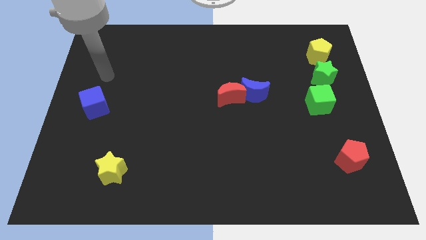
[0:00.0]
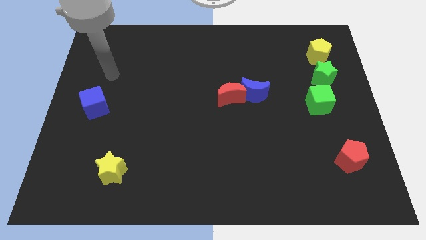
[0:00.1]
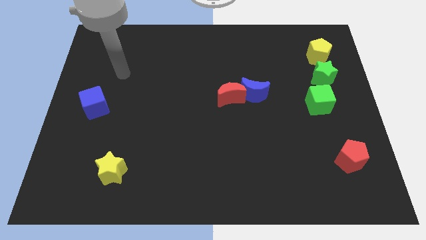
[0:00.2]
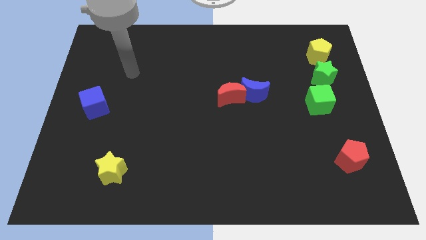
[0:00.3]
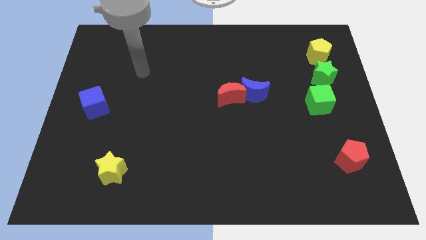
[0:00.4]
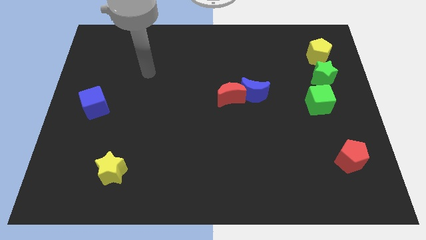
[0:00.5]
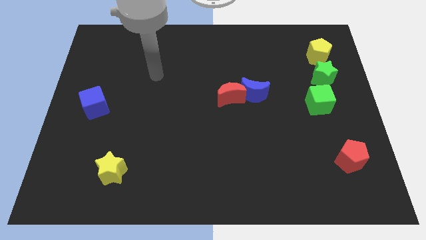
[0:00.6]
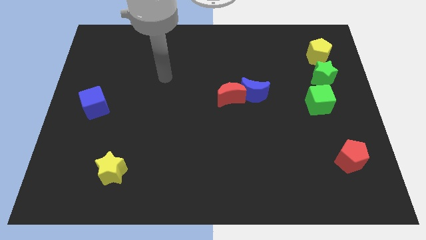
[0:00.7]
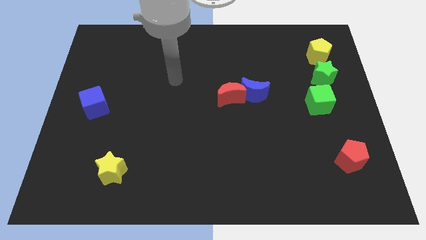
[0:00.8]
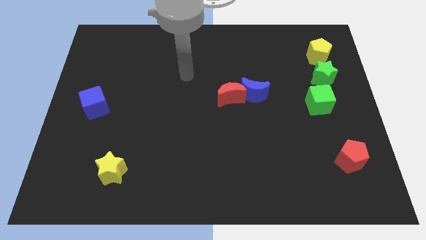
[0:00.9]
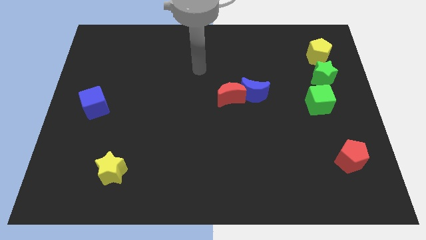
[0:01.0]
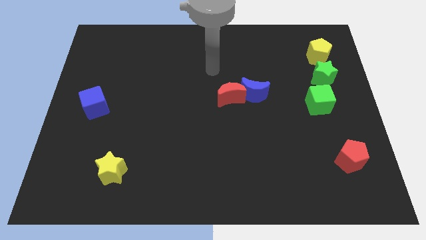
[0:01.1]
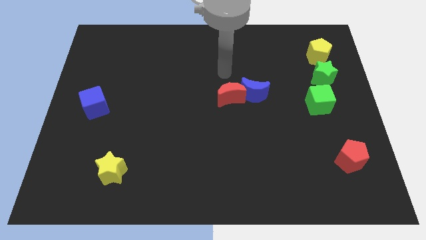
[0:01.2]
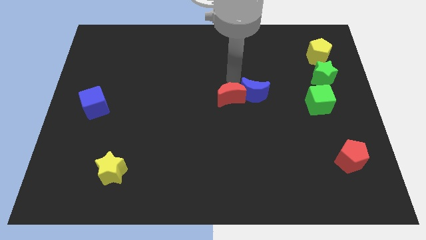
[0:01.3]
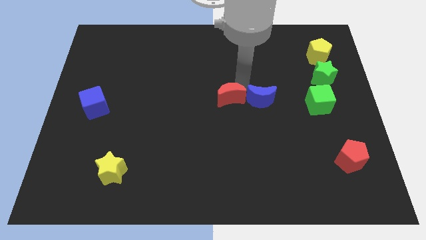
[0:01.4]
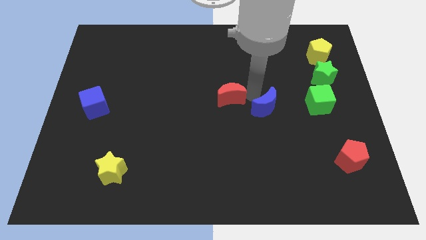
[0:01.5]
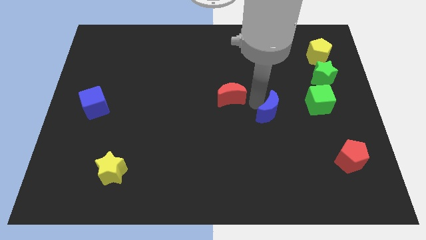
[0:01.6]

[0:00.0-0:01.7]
separate the red moon from the blue moon

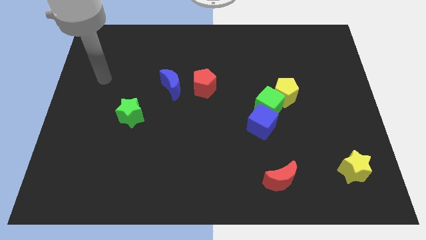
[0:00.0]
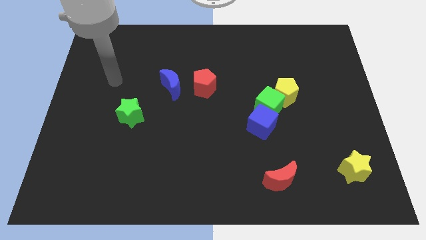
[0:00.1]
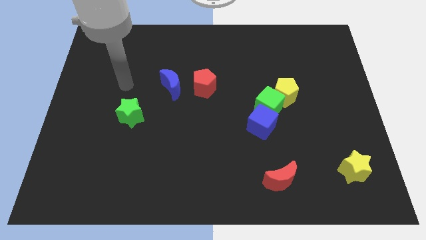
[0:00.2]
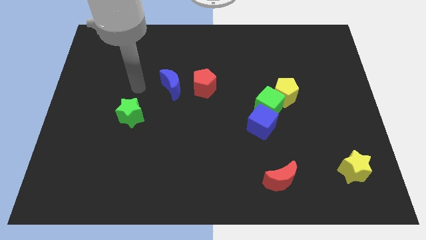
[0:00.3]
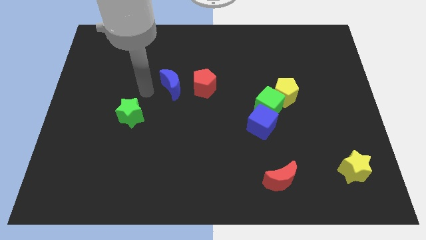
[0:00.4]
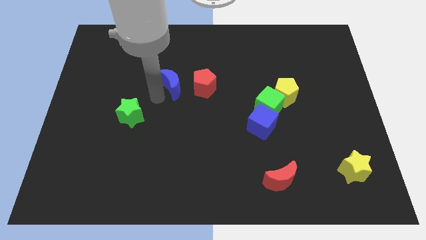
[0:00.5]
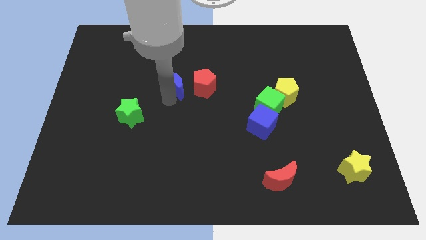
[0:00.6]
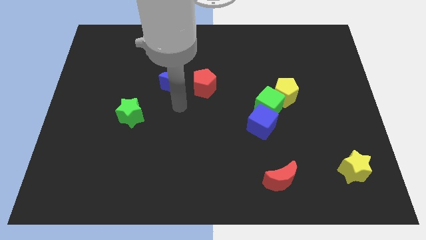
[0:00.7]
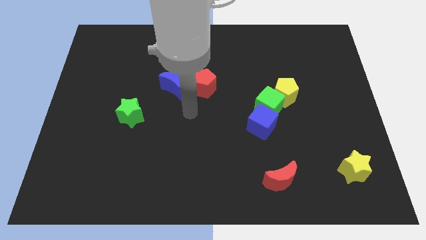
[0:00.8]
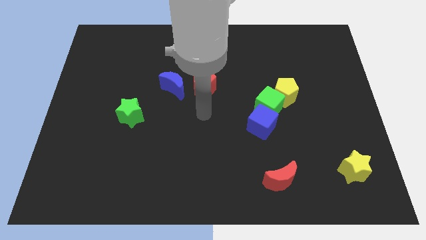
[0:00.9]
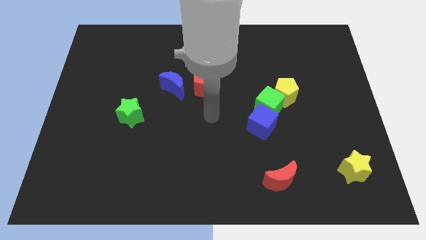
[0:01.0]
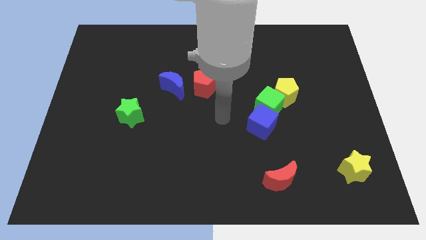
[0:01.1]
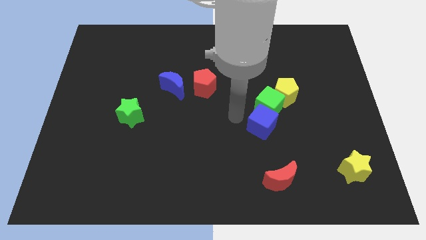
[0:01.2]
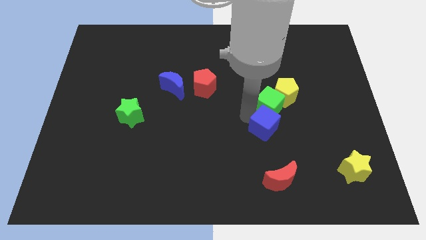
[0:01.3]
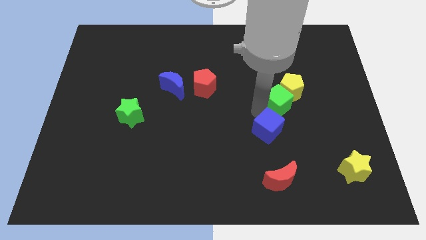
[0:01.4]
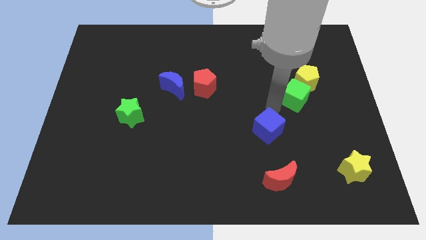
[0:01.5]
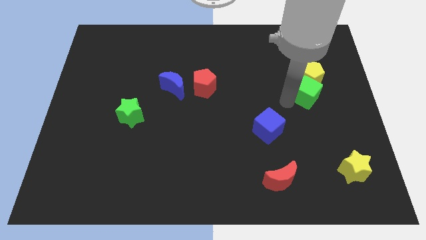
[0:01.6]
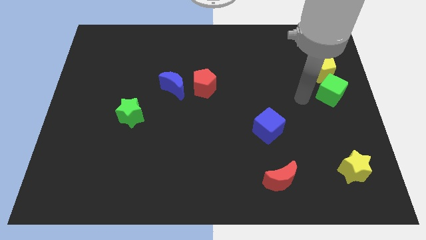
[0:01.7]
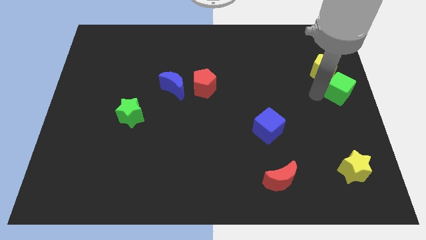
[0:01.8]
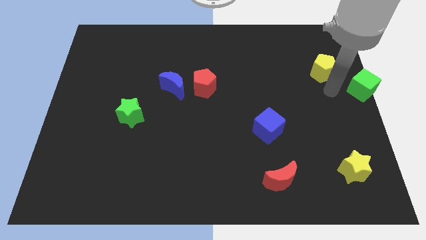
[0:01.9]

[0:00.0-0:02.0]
pull the yellow pentagon apart from the green cube

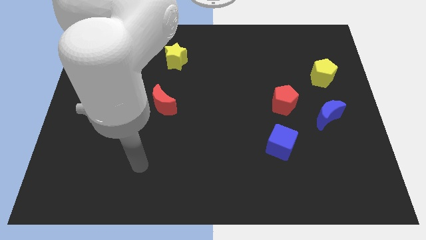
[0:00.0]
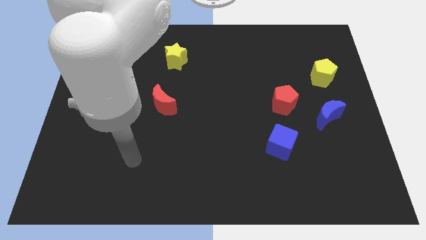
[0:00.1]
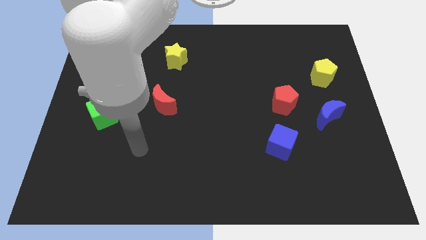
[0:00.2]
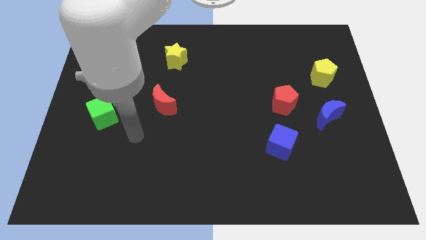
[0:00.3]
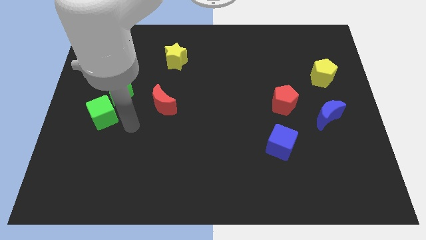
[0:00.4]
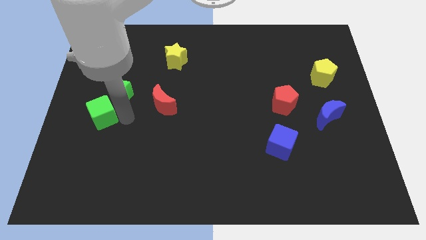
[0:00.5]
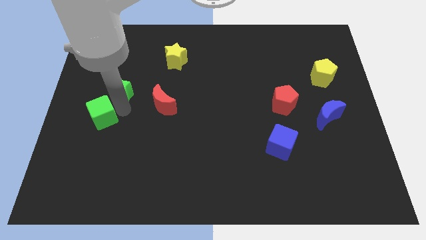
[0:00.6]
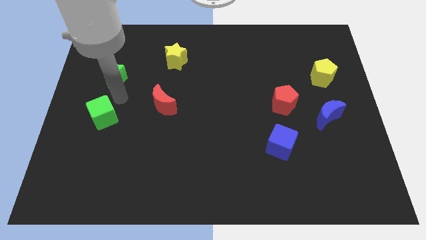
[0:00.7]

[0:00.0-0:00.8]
pull the green cube apart from the green star

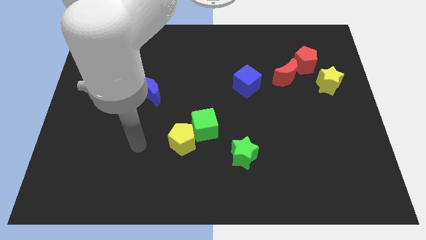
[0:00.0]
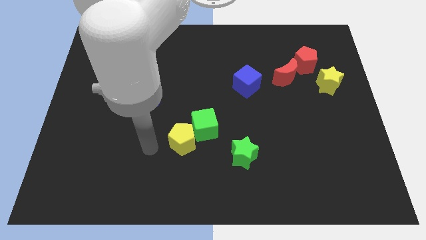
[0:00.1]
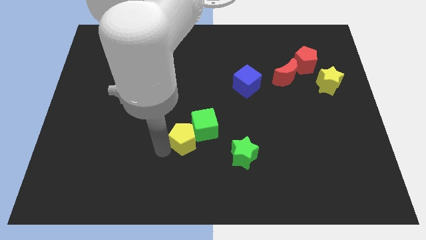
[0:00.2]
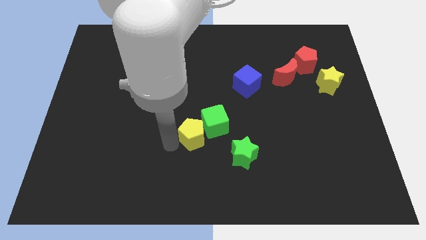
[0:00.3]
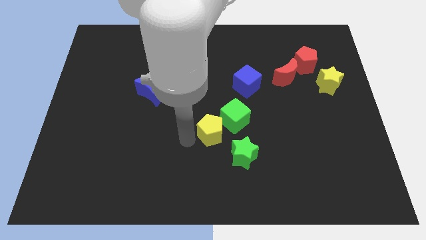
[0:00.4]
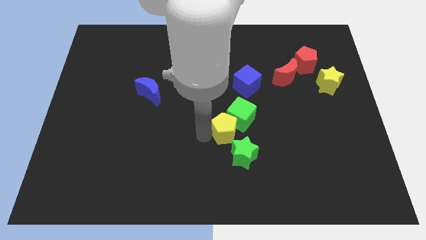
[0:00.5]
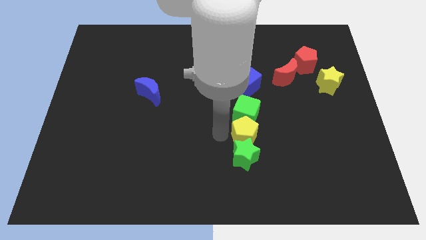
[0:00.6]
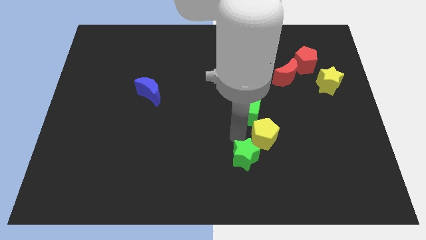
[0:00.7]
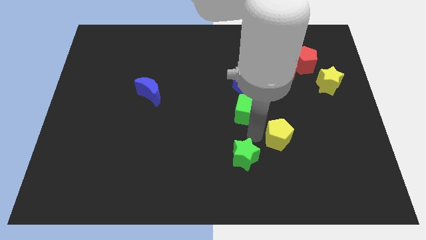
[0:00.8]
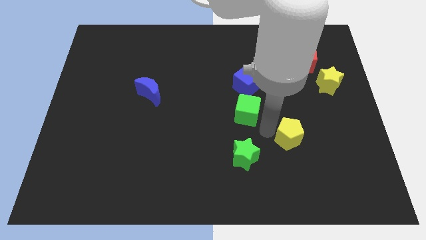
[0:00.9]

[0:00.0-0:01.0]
separate the green cube from the yellow pentagon

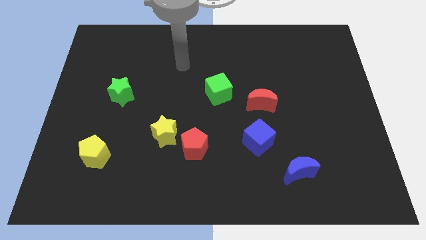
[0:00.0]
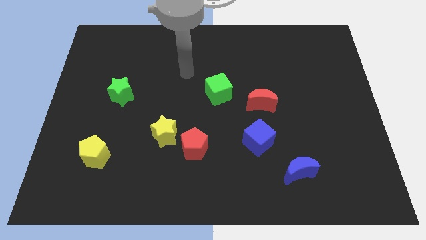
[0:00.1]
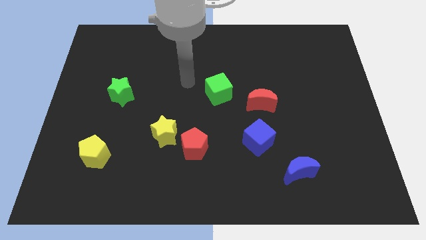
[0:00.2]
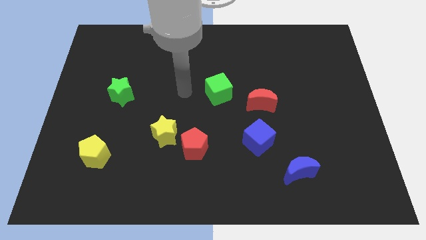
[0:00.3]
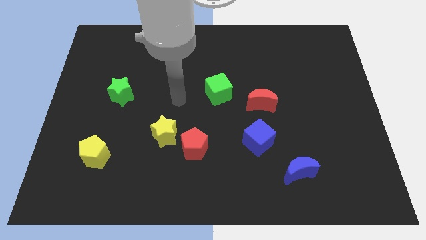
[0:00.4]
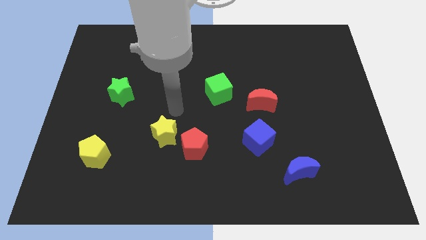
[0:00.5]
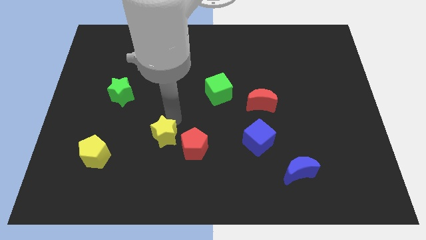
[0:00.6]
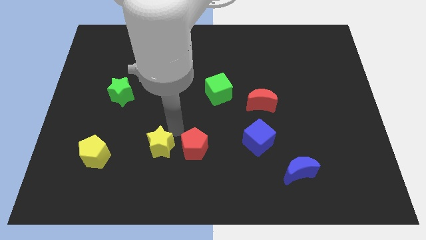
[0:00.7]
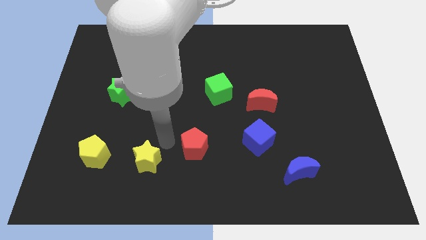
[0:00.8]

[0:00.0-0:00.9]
pull the red pentagon apart from the yellow star

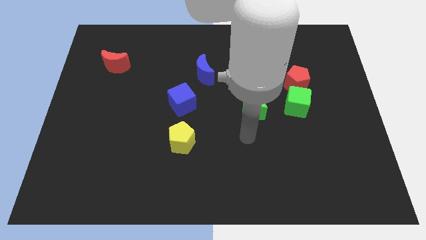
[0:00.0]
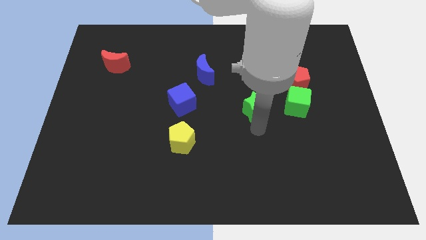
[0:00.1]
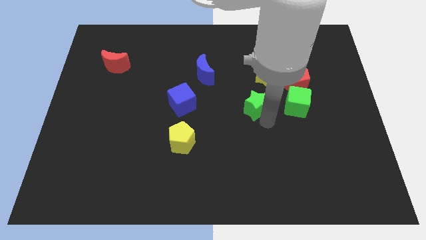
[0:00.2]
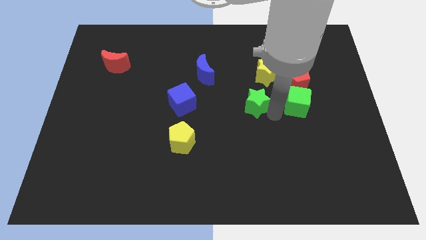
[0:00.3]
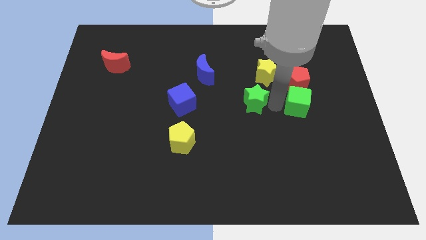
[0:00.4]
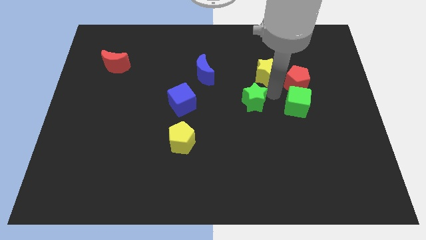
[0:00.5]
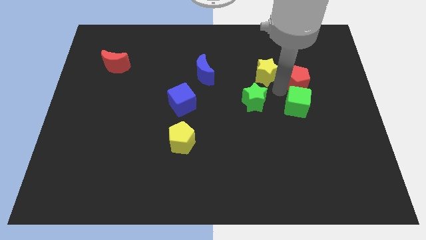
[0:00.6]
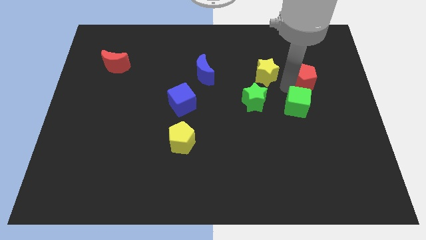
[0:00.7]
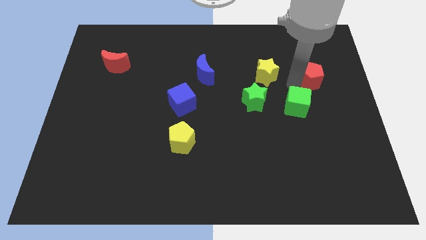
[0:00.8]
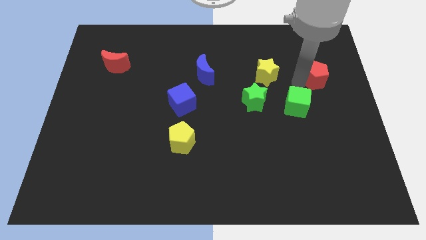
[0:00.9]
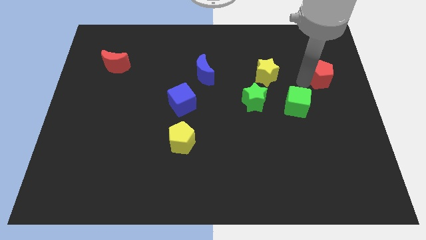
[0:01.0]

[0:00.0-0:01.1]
pull the red pentagon apart from the green cube and yellow star

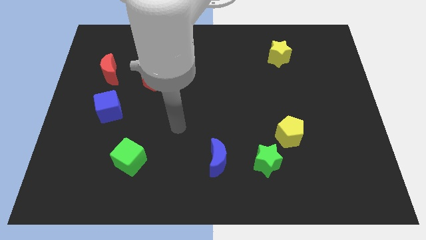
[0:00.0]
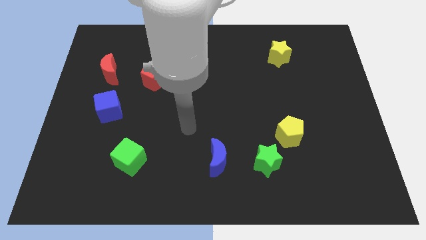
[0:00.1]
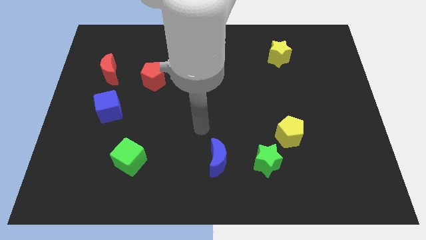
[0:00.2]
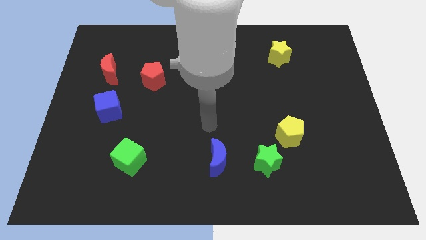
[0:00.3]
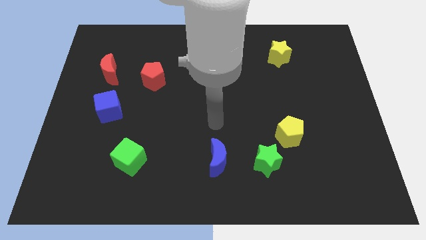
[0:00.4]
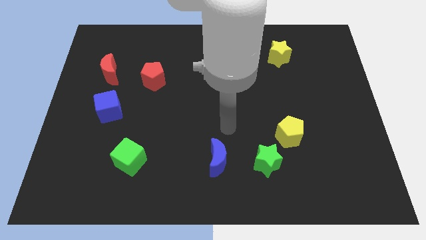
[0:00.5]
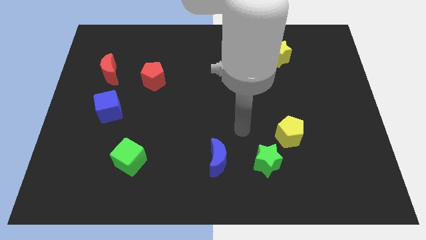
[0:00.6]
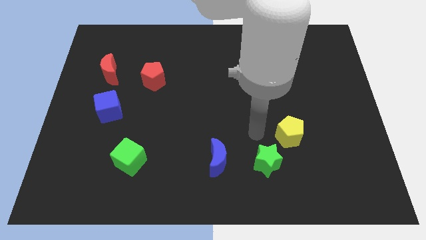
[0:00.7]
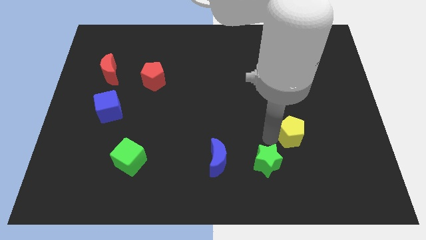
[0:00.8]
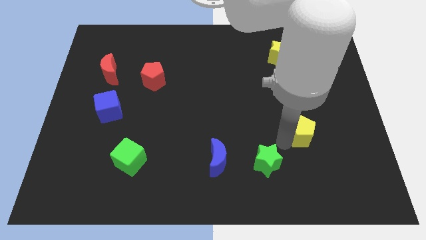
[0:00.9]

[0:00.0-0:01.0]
pull the green star apart from the yellow pentagon

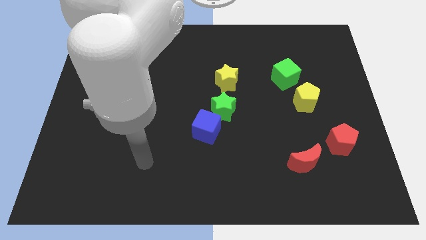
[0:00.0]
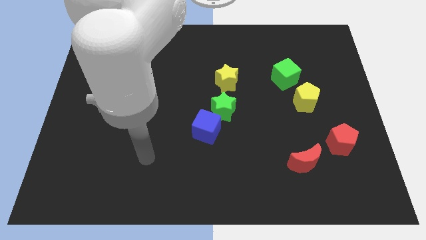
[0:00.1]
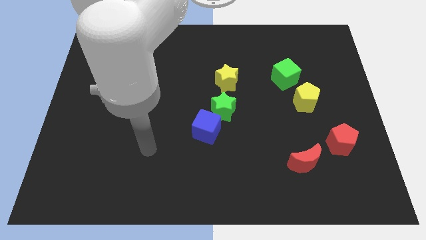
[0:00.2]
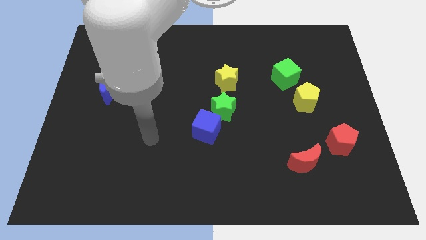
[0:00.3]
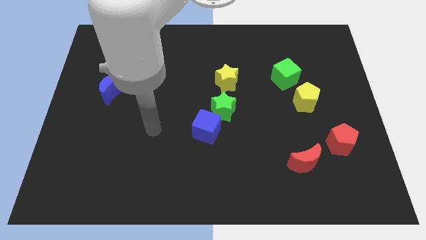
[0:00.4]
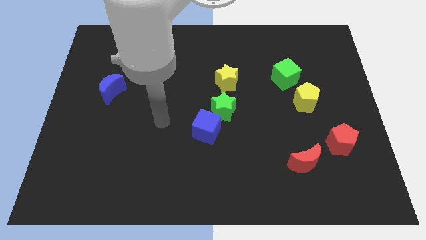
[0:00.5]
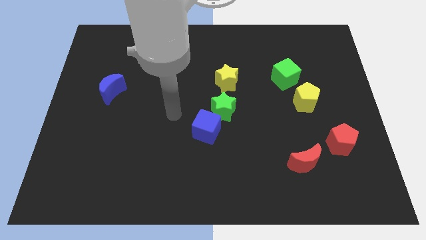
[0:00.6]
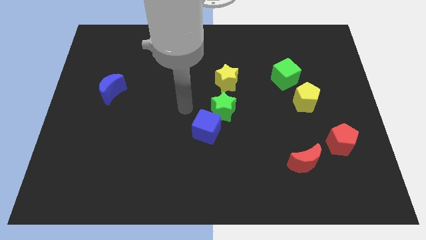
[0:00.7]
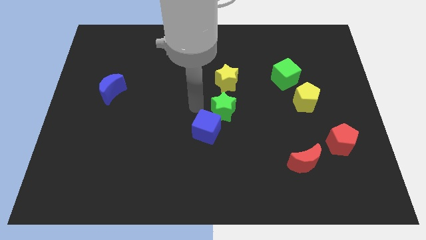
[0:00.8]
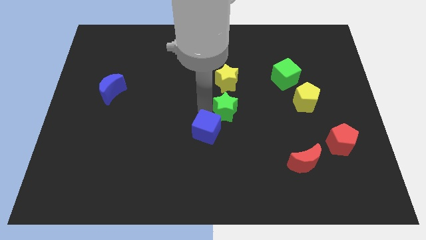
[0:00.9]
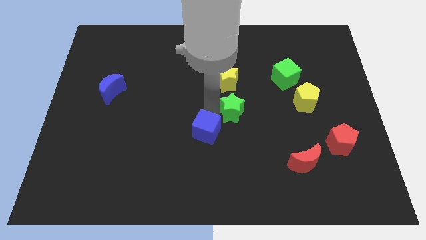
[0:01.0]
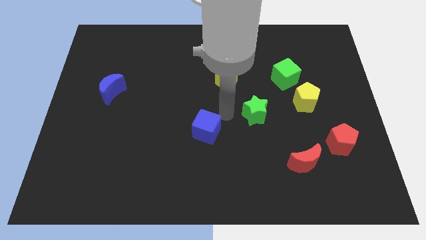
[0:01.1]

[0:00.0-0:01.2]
pull the blue cube apart from the green star
